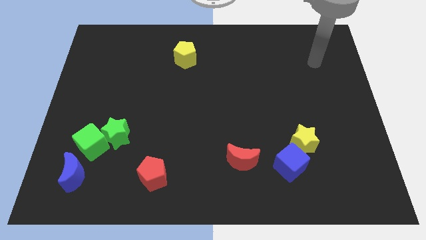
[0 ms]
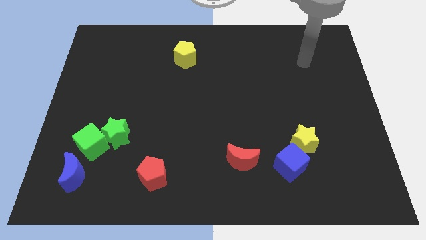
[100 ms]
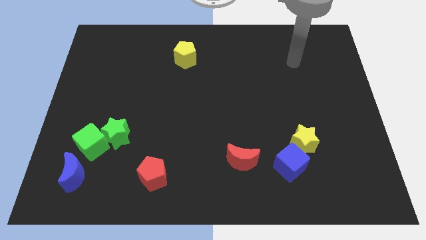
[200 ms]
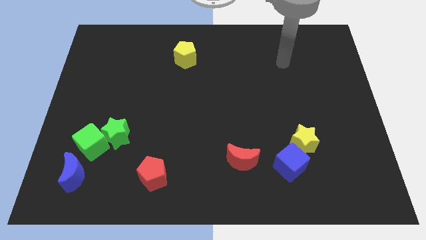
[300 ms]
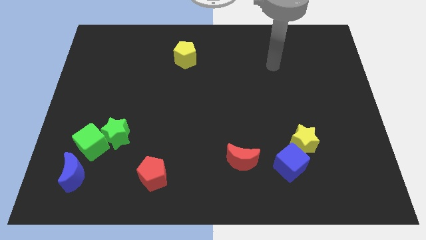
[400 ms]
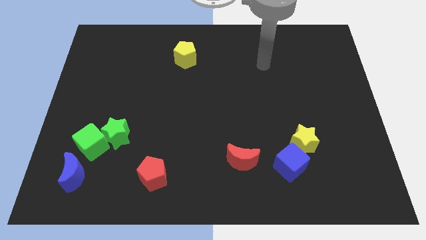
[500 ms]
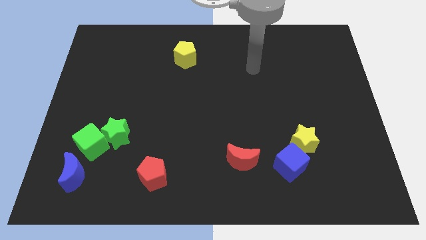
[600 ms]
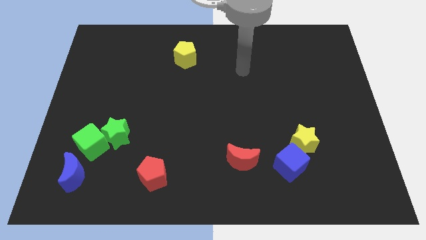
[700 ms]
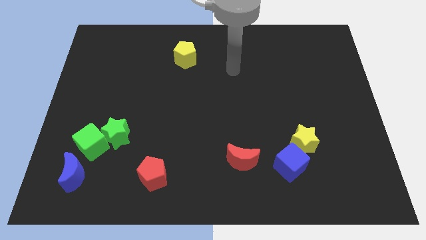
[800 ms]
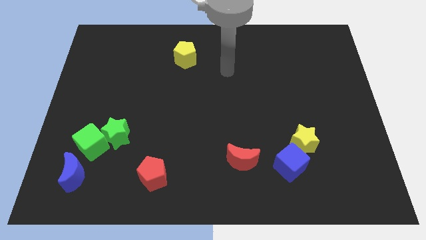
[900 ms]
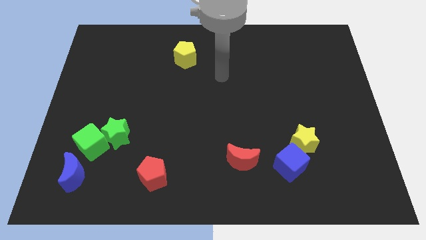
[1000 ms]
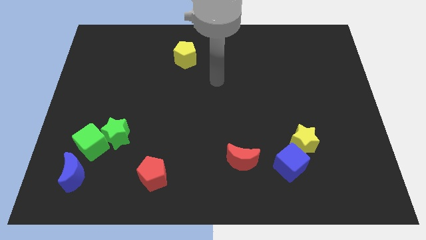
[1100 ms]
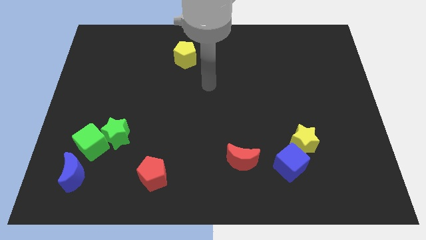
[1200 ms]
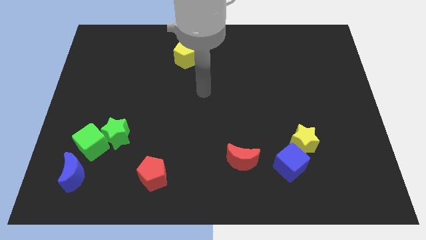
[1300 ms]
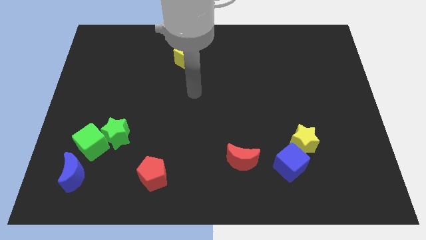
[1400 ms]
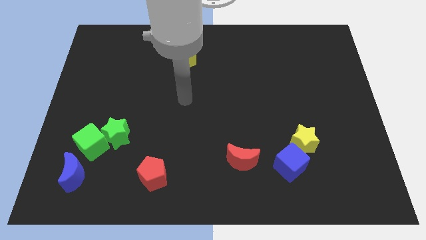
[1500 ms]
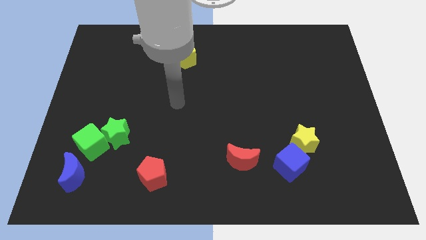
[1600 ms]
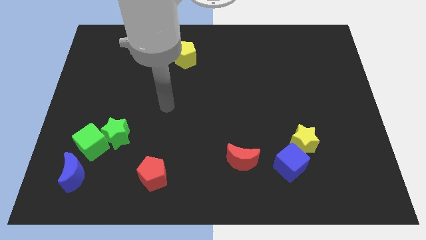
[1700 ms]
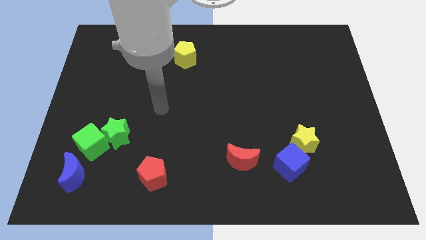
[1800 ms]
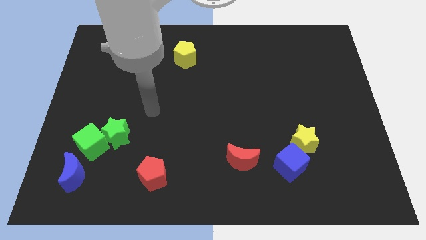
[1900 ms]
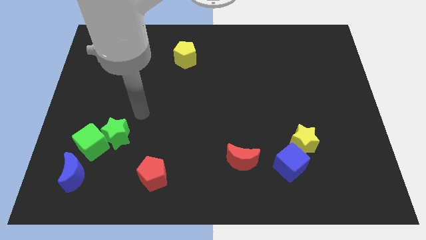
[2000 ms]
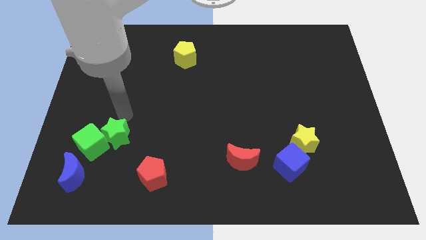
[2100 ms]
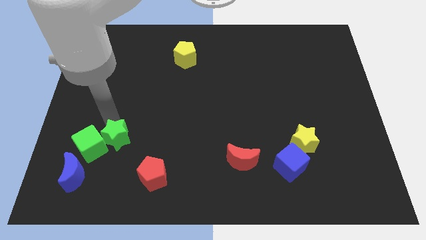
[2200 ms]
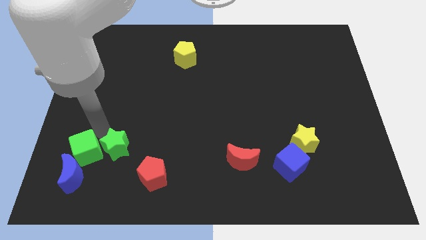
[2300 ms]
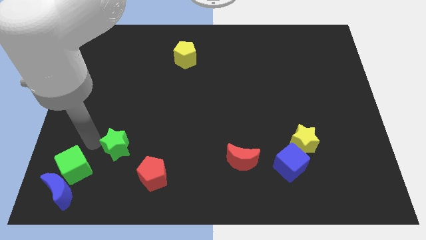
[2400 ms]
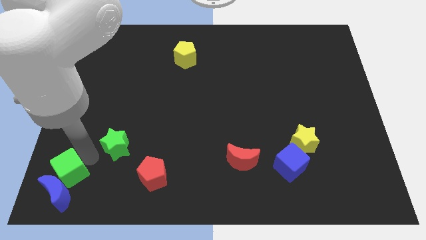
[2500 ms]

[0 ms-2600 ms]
move the green star away from the green cube

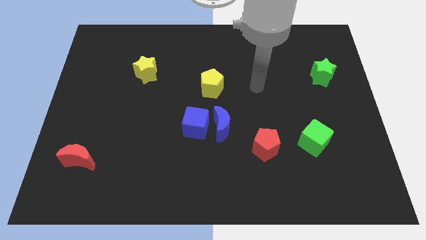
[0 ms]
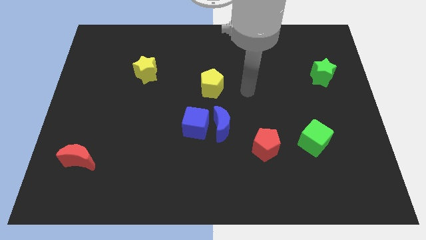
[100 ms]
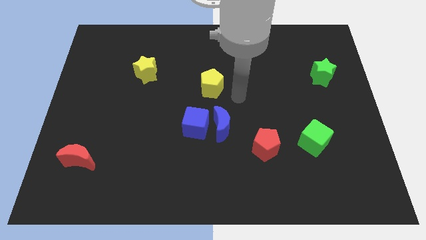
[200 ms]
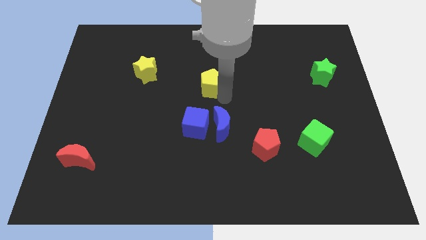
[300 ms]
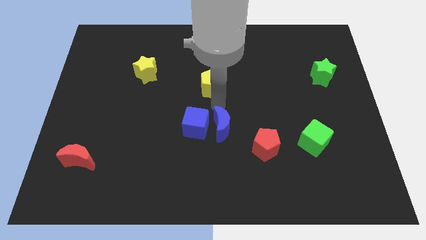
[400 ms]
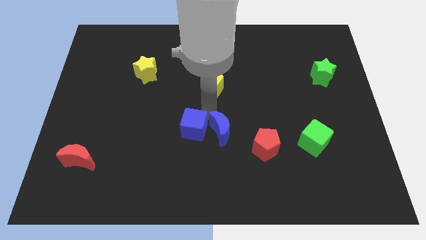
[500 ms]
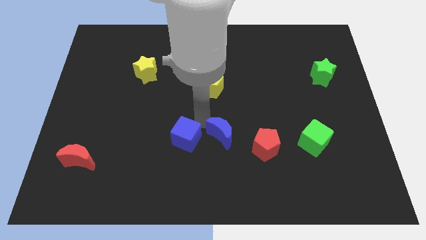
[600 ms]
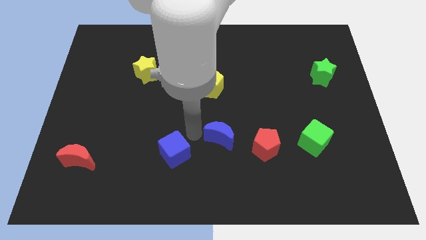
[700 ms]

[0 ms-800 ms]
pull the blue moon apart from the blue cube

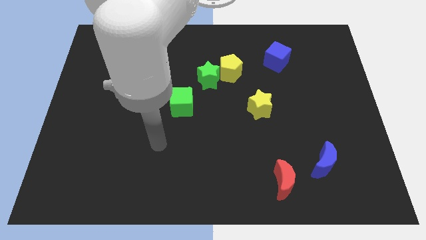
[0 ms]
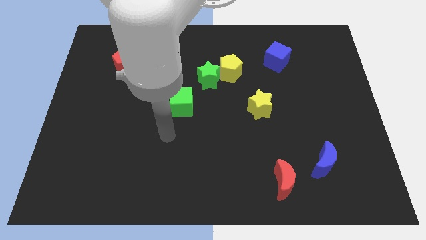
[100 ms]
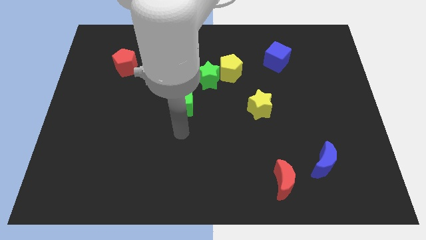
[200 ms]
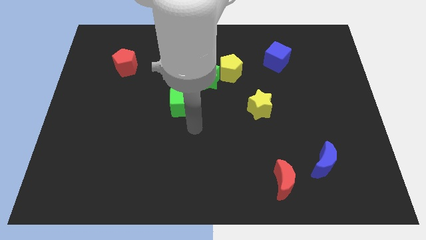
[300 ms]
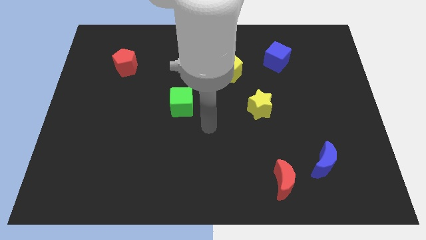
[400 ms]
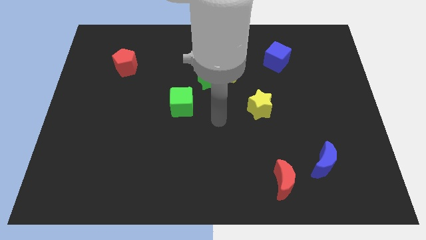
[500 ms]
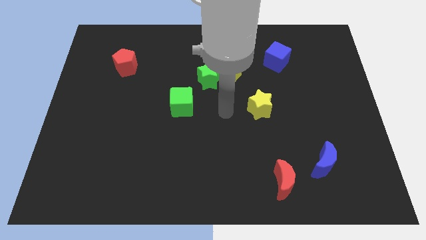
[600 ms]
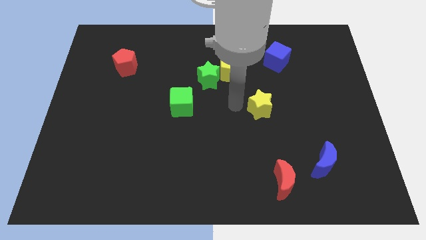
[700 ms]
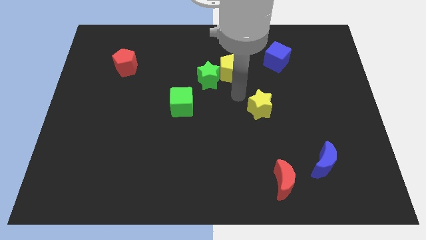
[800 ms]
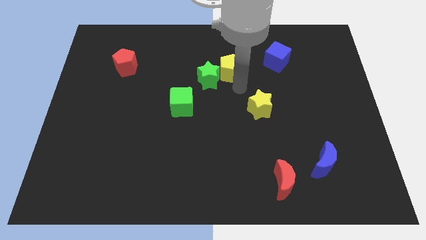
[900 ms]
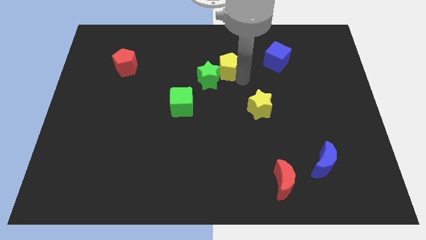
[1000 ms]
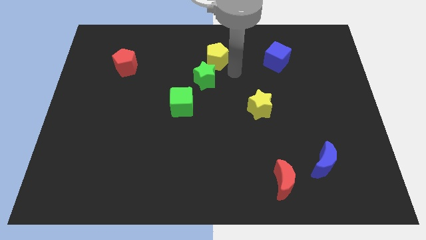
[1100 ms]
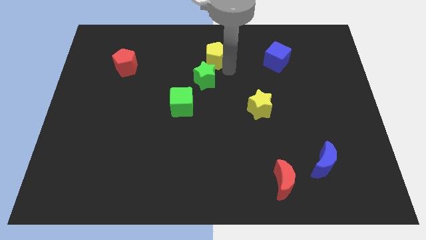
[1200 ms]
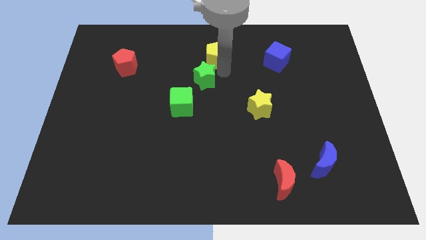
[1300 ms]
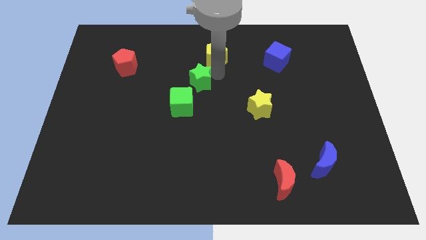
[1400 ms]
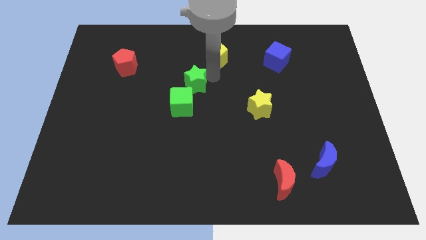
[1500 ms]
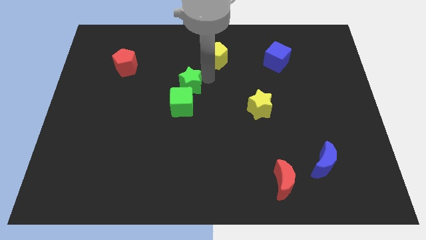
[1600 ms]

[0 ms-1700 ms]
separate the green star from the yellow pentagon

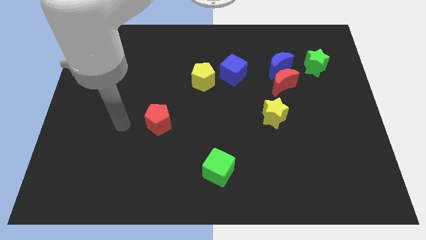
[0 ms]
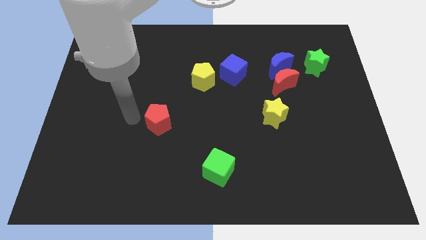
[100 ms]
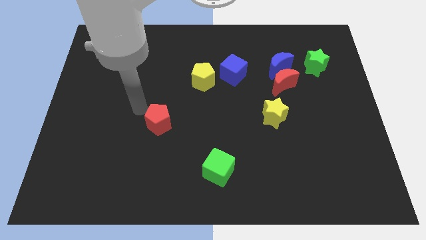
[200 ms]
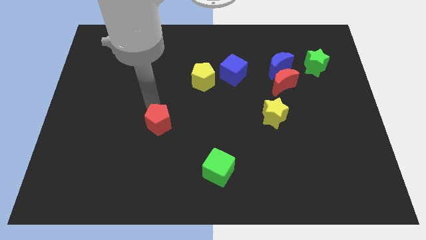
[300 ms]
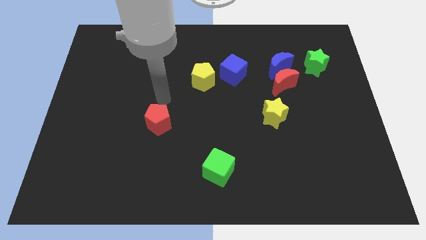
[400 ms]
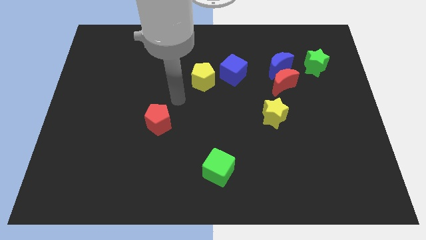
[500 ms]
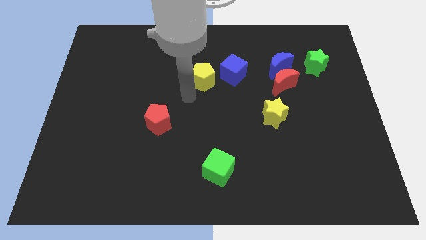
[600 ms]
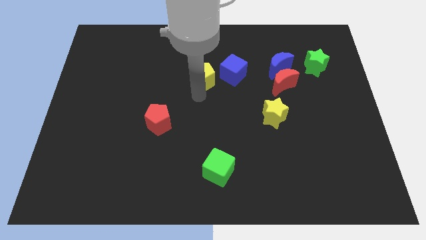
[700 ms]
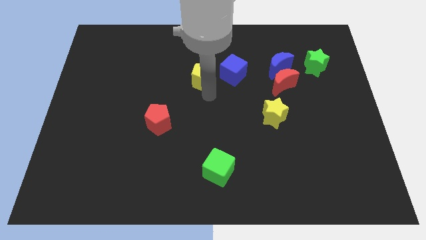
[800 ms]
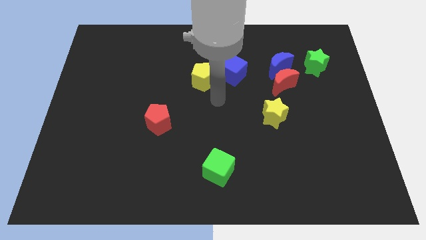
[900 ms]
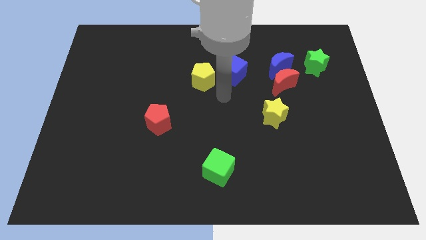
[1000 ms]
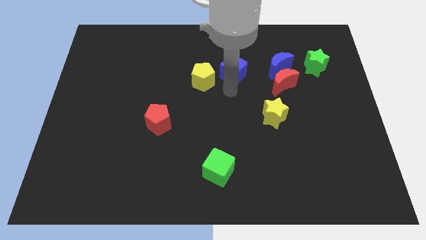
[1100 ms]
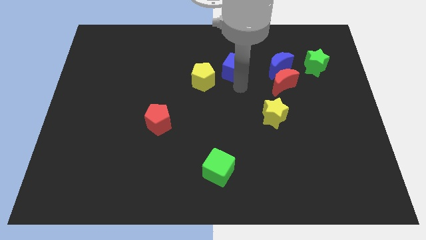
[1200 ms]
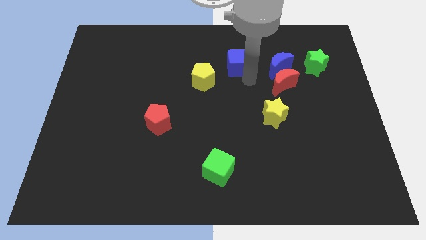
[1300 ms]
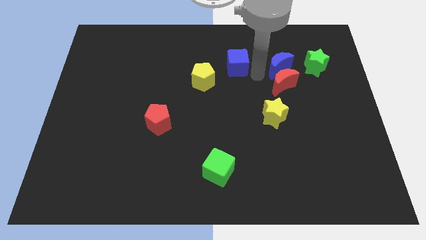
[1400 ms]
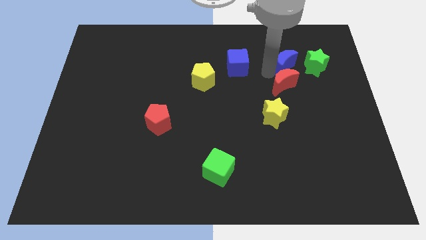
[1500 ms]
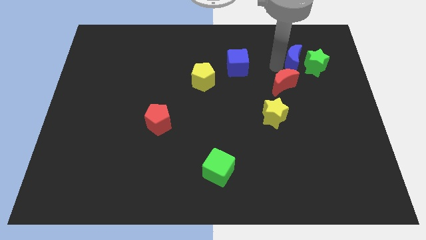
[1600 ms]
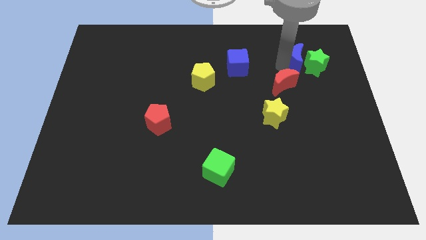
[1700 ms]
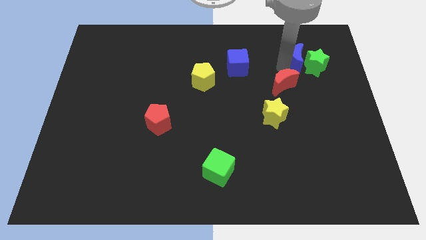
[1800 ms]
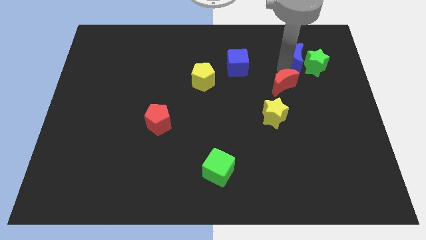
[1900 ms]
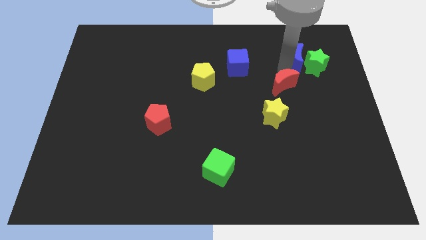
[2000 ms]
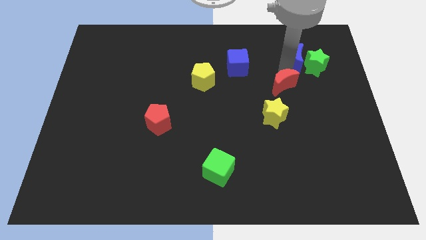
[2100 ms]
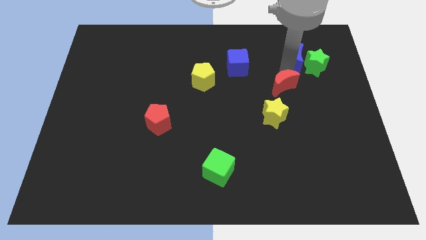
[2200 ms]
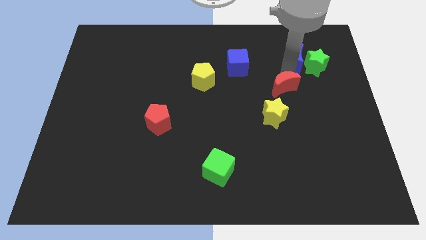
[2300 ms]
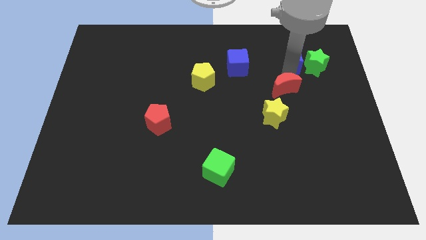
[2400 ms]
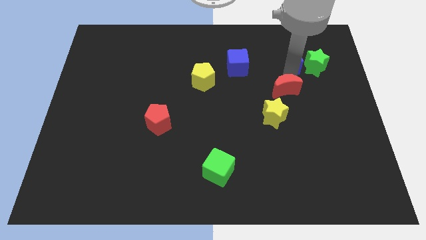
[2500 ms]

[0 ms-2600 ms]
move the red moon away from the blue moon

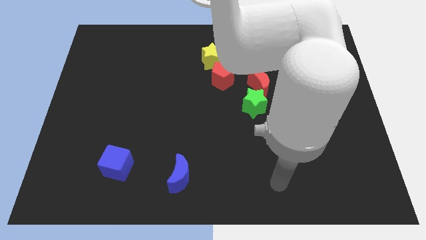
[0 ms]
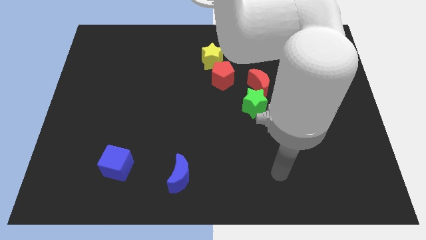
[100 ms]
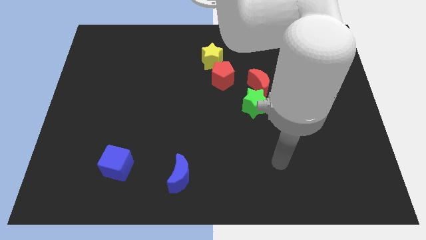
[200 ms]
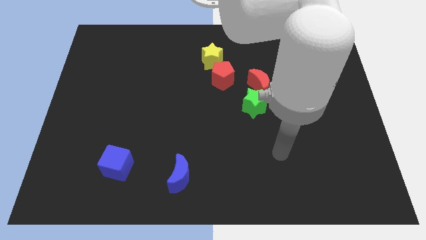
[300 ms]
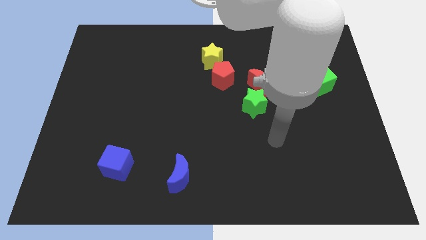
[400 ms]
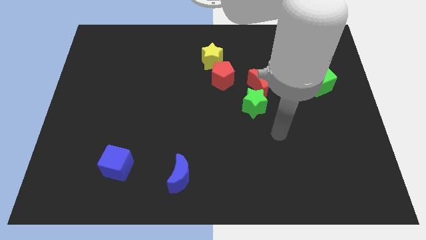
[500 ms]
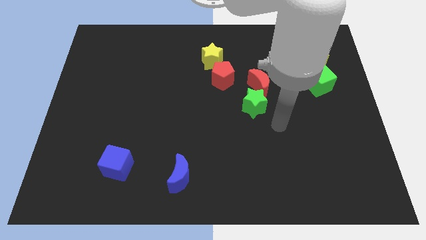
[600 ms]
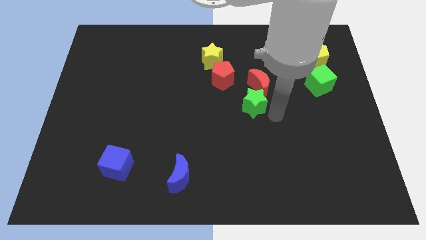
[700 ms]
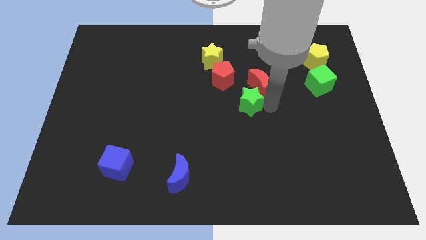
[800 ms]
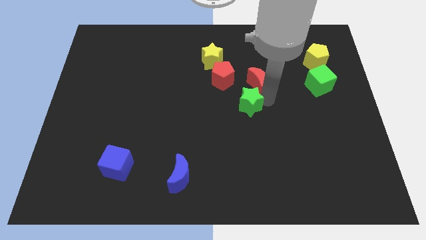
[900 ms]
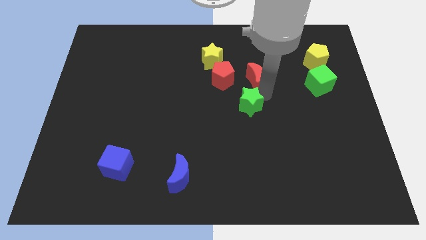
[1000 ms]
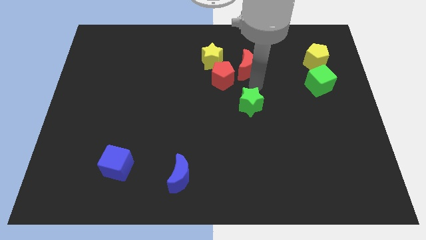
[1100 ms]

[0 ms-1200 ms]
pull the green star apart from the red moon

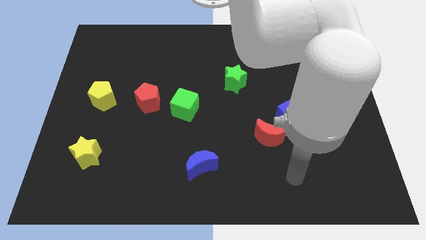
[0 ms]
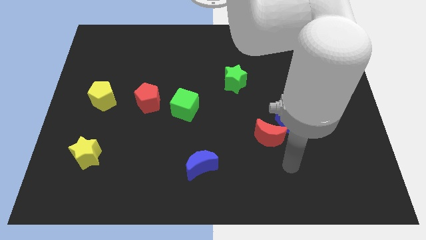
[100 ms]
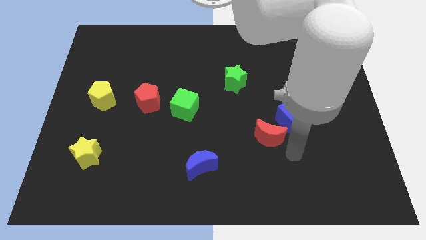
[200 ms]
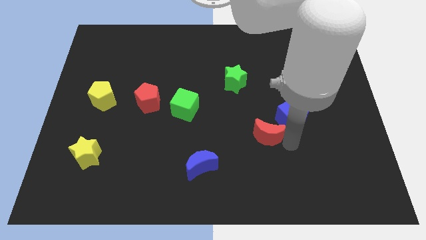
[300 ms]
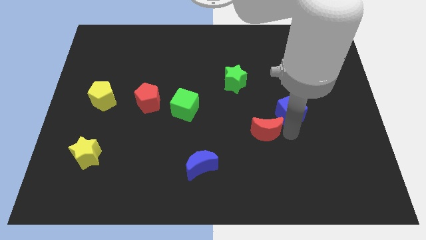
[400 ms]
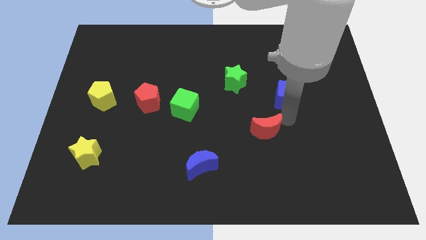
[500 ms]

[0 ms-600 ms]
separate the red moon from the blue cube
